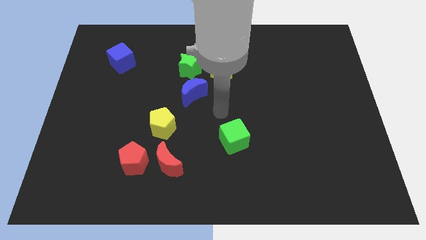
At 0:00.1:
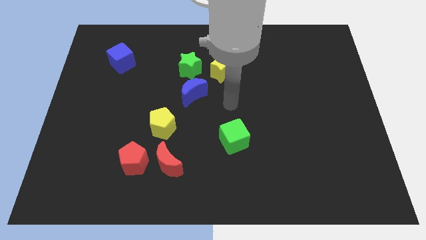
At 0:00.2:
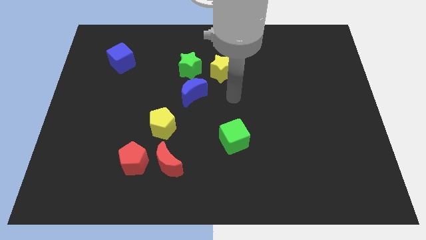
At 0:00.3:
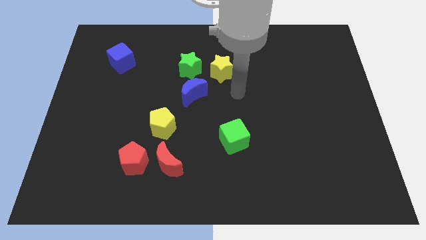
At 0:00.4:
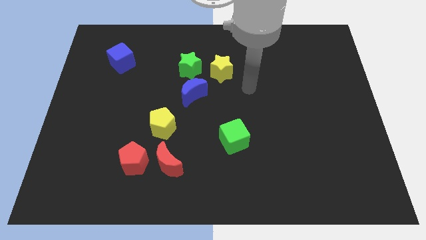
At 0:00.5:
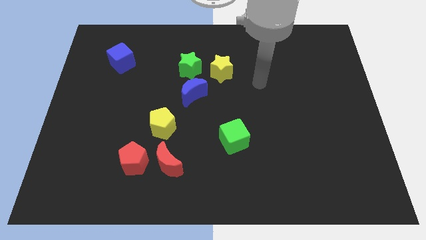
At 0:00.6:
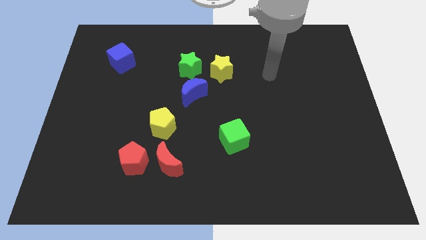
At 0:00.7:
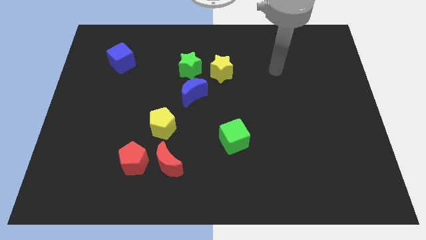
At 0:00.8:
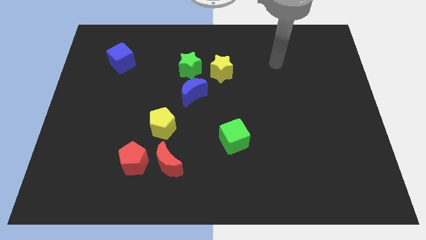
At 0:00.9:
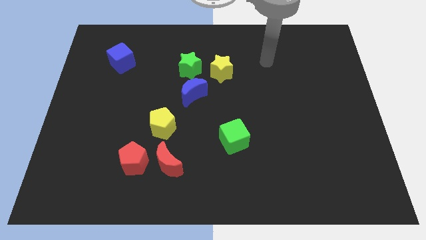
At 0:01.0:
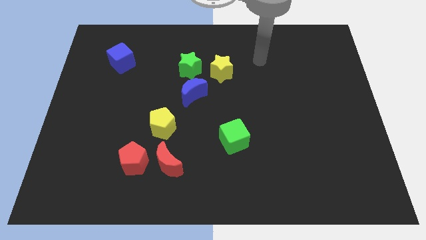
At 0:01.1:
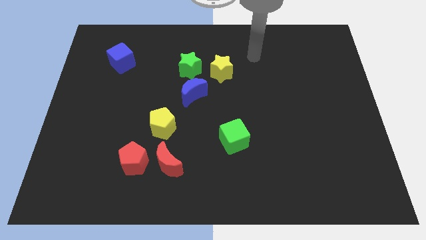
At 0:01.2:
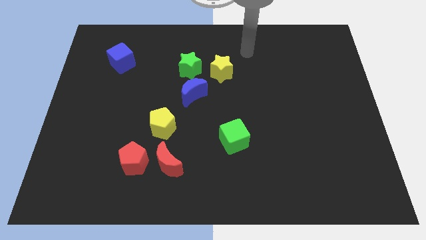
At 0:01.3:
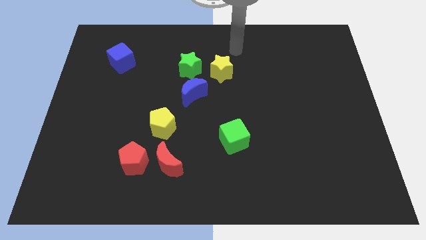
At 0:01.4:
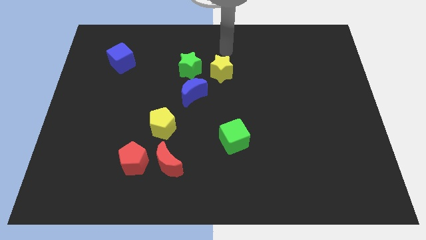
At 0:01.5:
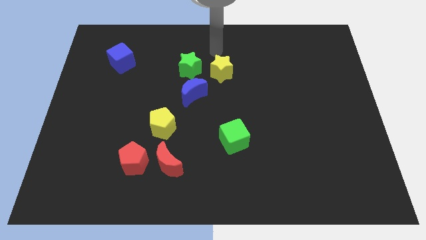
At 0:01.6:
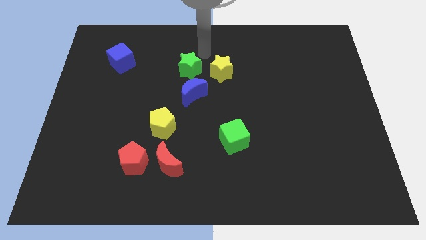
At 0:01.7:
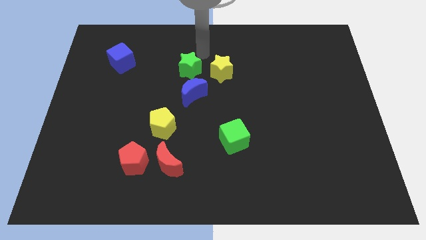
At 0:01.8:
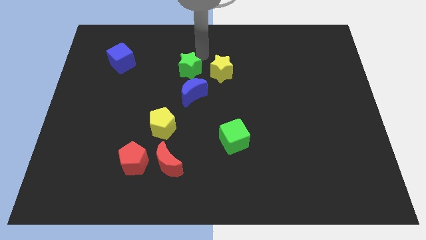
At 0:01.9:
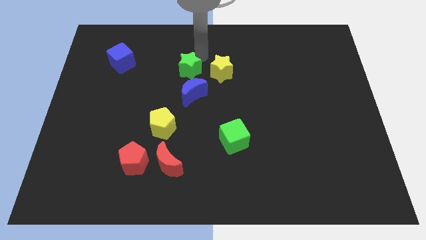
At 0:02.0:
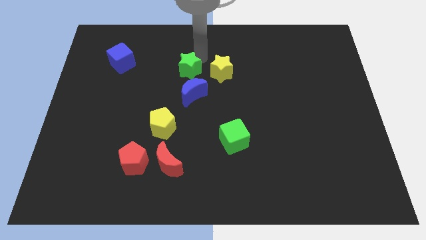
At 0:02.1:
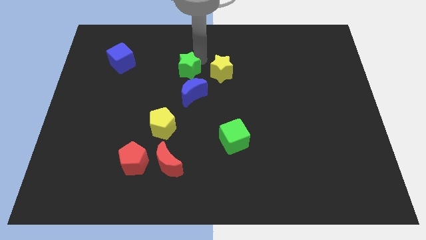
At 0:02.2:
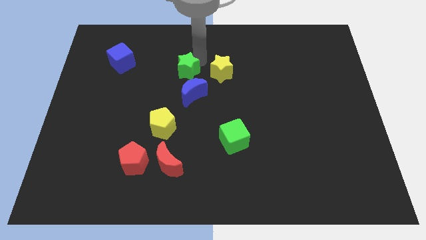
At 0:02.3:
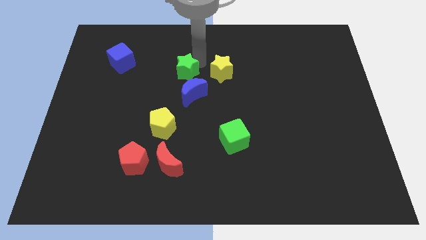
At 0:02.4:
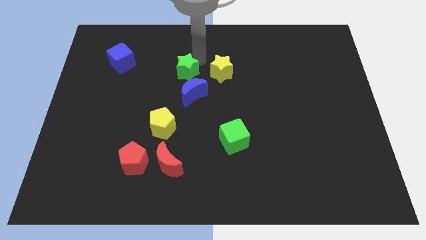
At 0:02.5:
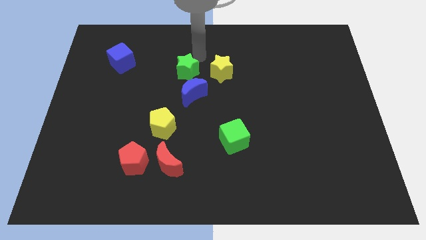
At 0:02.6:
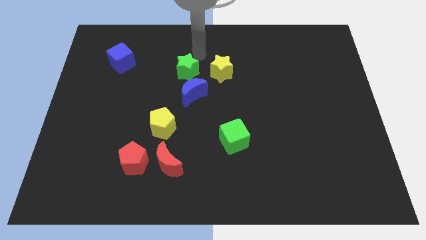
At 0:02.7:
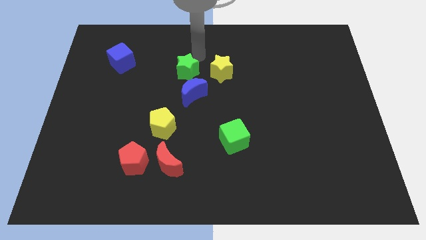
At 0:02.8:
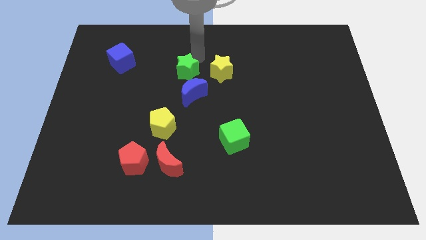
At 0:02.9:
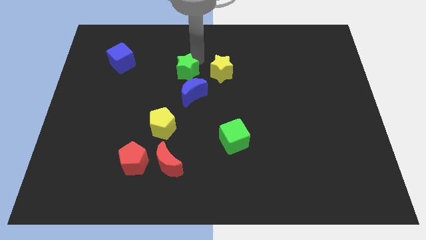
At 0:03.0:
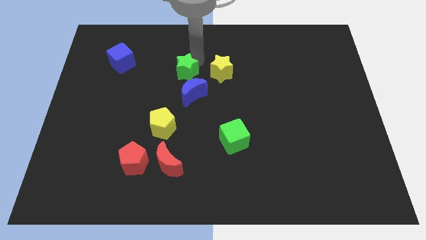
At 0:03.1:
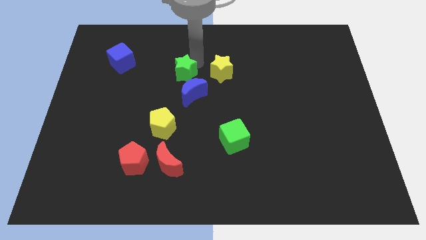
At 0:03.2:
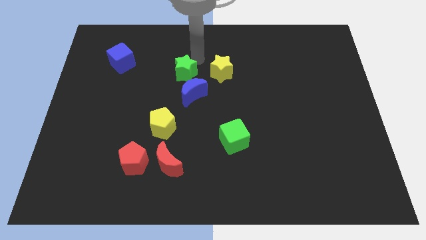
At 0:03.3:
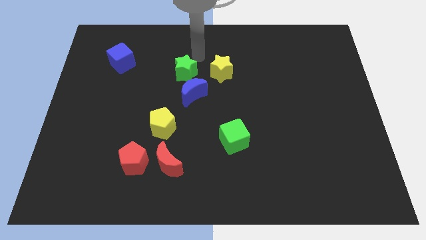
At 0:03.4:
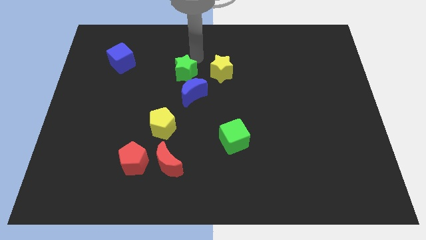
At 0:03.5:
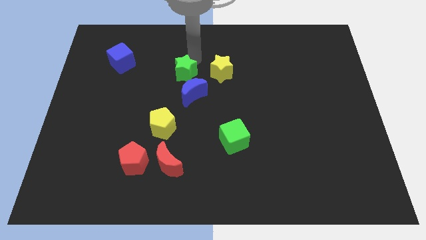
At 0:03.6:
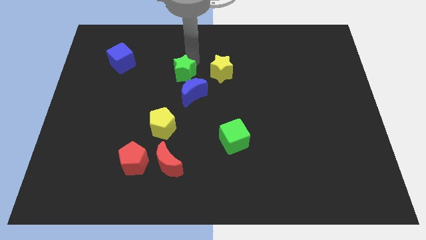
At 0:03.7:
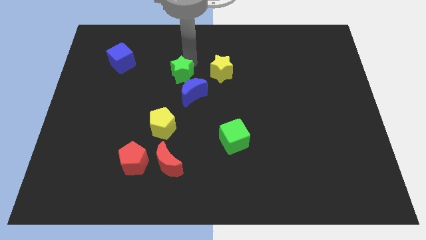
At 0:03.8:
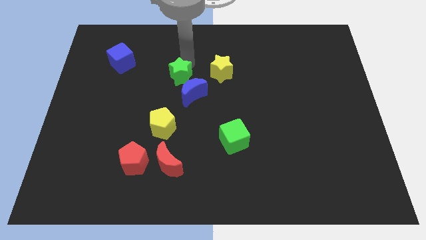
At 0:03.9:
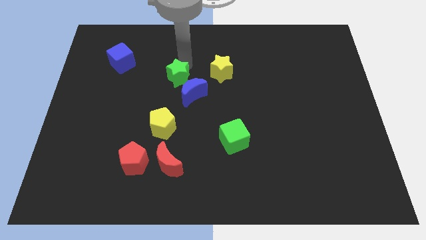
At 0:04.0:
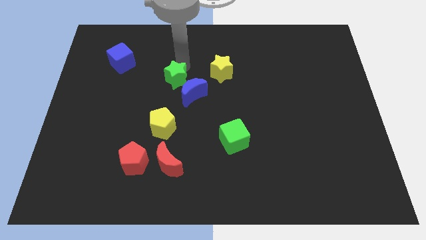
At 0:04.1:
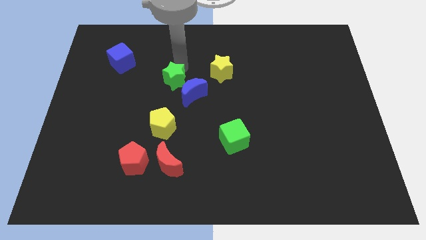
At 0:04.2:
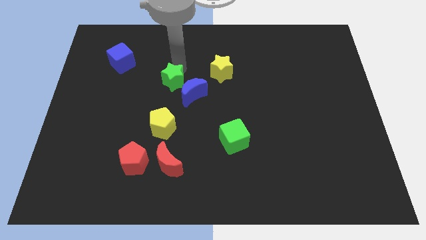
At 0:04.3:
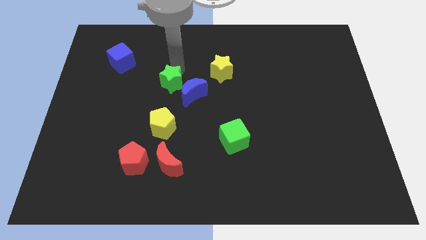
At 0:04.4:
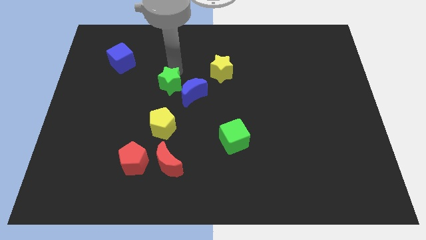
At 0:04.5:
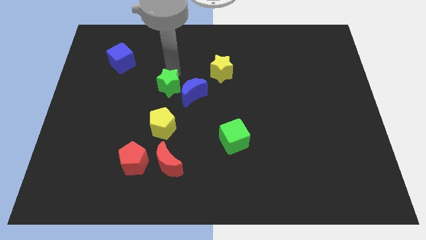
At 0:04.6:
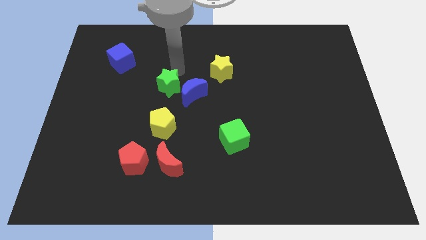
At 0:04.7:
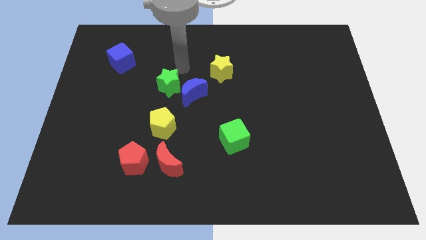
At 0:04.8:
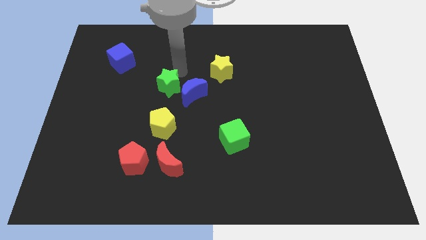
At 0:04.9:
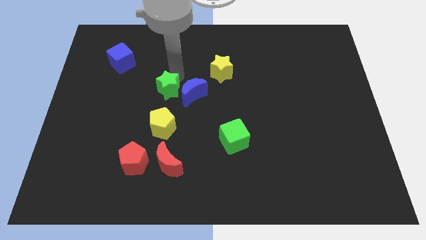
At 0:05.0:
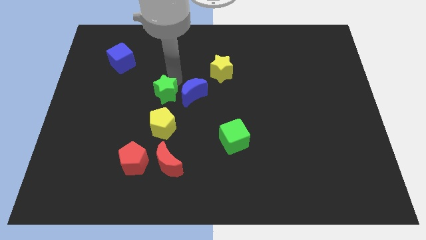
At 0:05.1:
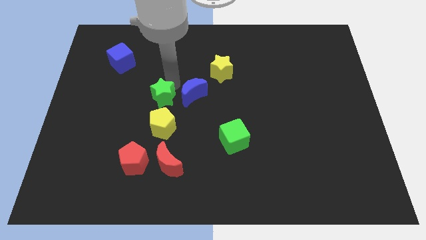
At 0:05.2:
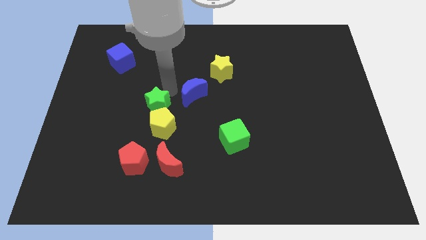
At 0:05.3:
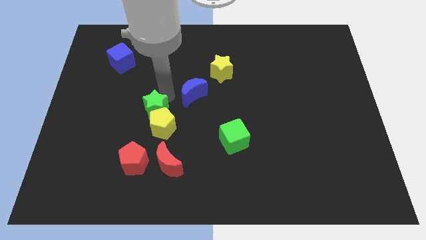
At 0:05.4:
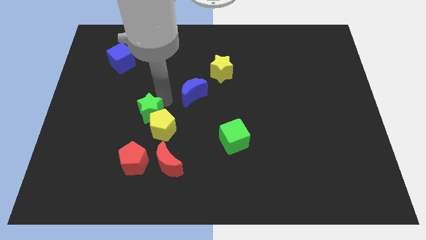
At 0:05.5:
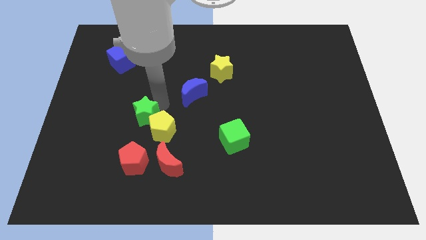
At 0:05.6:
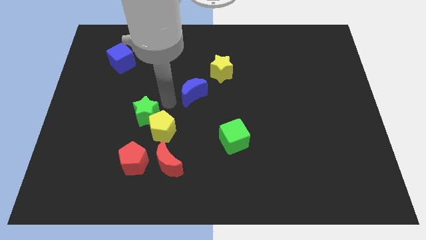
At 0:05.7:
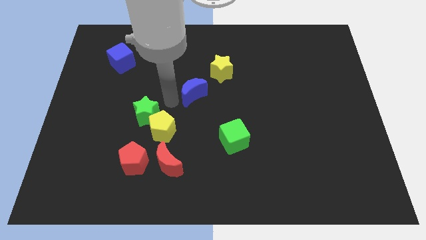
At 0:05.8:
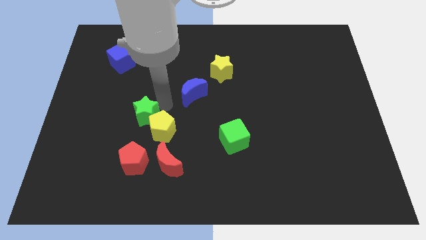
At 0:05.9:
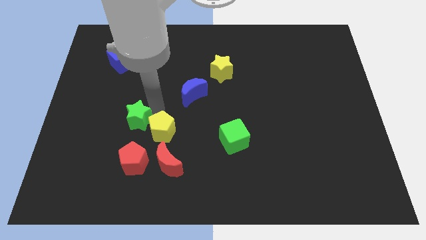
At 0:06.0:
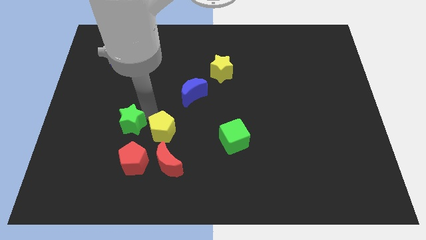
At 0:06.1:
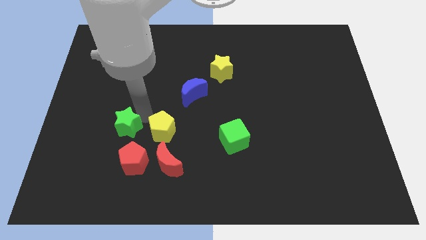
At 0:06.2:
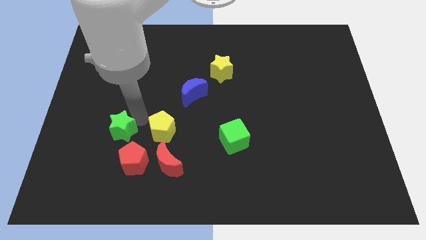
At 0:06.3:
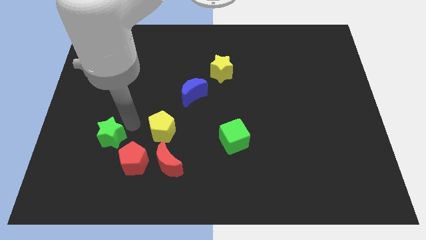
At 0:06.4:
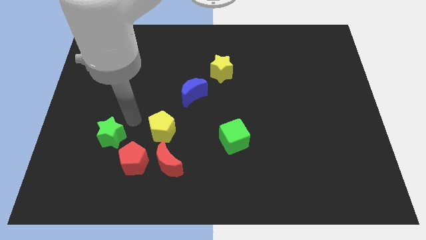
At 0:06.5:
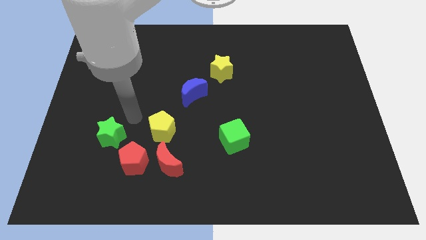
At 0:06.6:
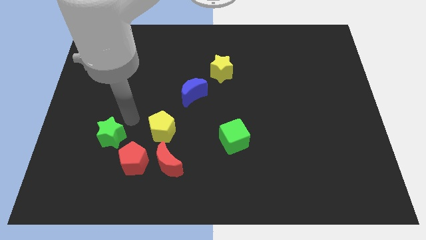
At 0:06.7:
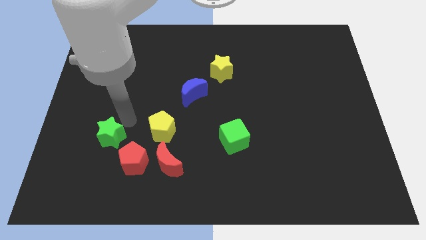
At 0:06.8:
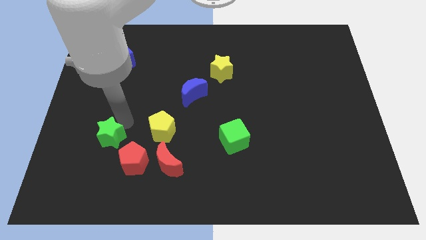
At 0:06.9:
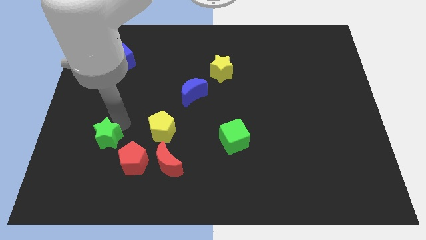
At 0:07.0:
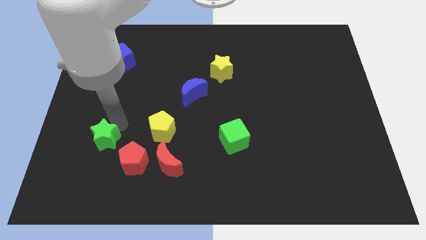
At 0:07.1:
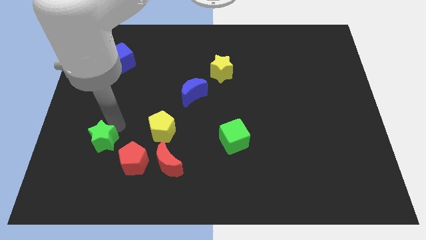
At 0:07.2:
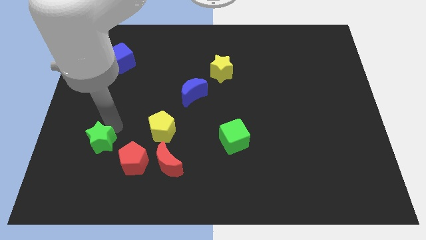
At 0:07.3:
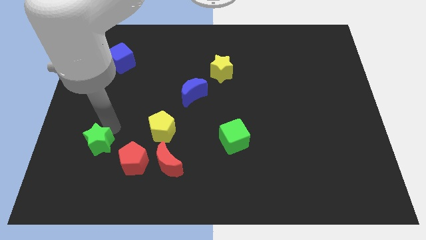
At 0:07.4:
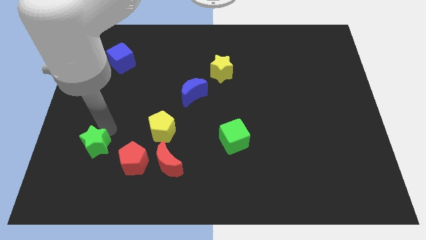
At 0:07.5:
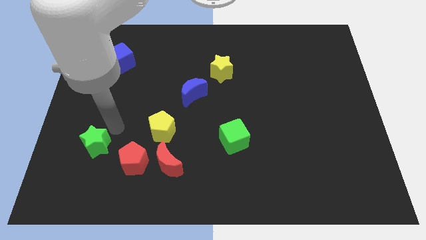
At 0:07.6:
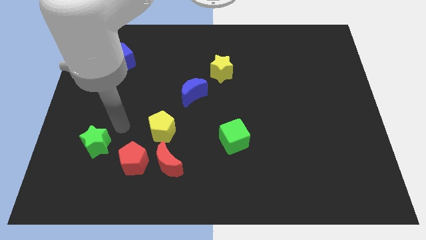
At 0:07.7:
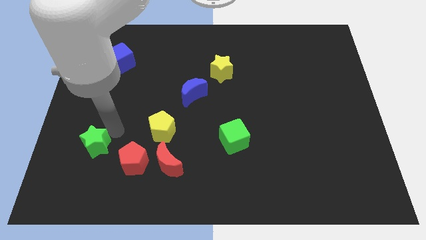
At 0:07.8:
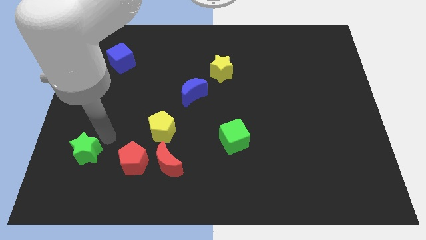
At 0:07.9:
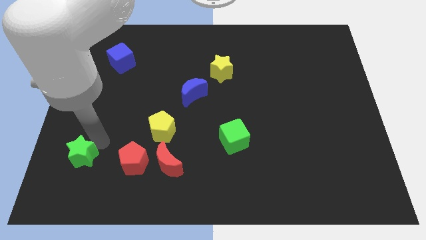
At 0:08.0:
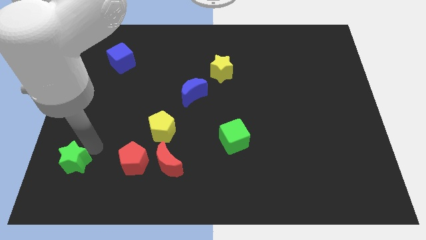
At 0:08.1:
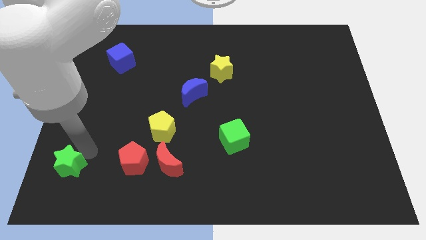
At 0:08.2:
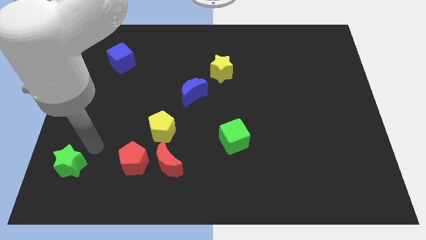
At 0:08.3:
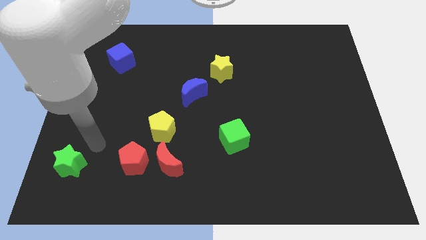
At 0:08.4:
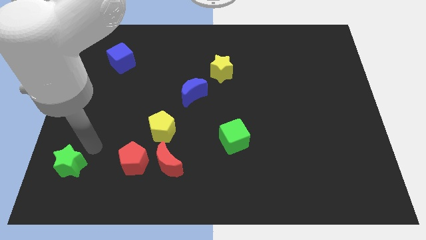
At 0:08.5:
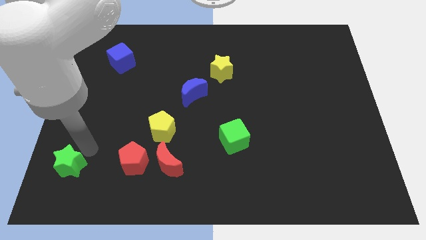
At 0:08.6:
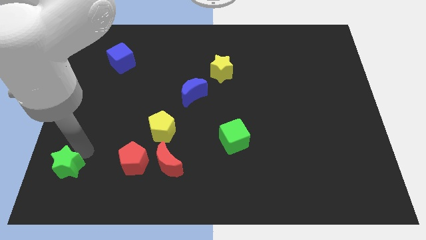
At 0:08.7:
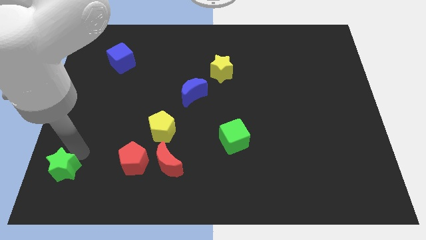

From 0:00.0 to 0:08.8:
push the green star to the bottom left
